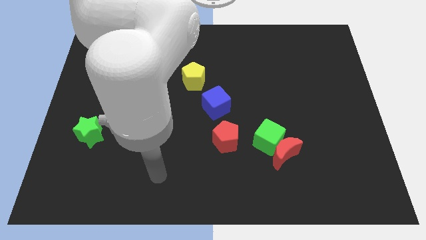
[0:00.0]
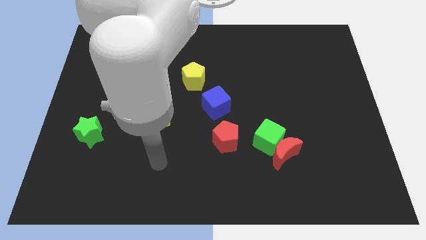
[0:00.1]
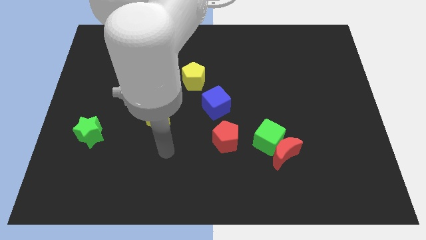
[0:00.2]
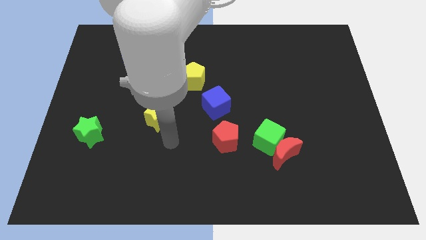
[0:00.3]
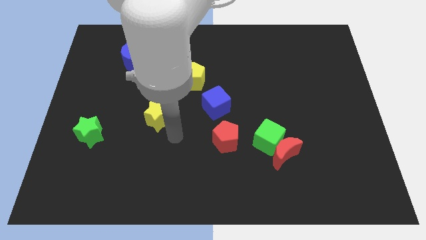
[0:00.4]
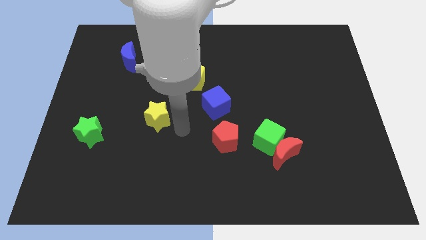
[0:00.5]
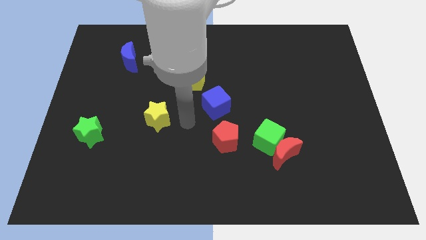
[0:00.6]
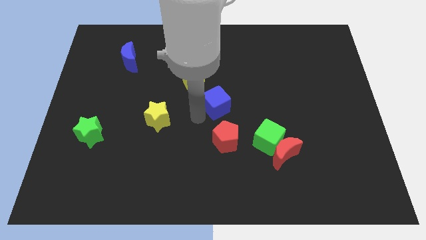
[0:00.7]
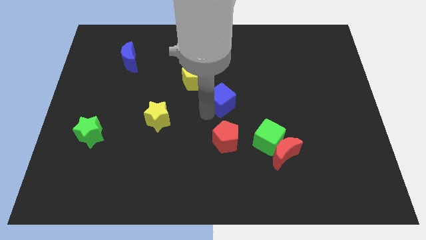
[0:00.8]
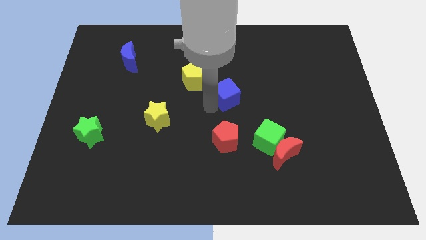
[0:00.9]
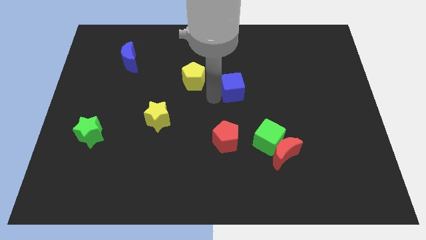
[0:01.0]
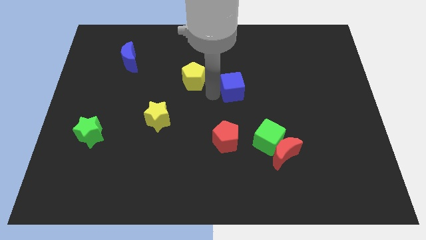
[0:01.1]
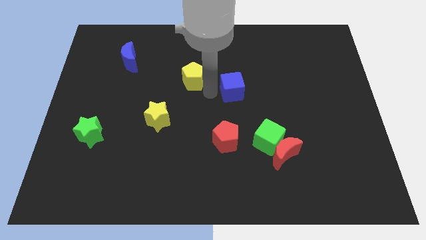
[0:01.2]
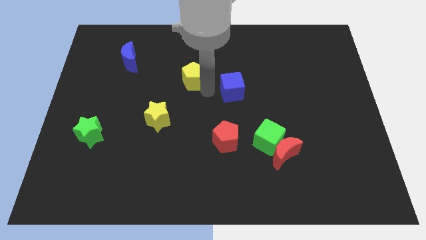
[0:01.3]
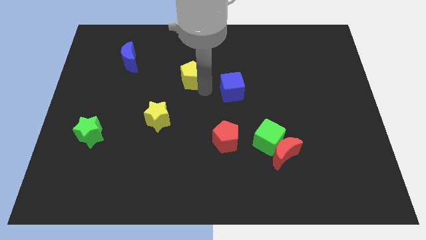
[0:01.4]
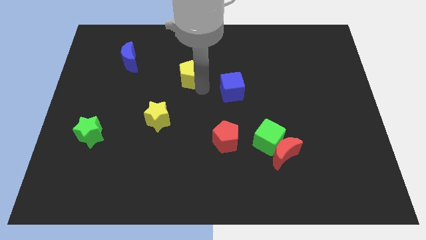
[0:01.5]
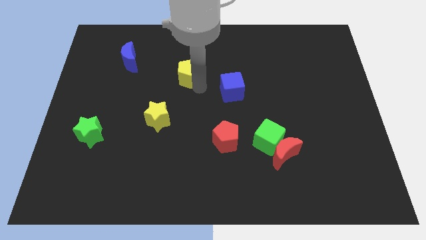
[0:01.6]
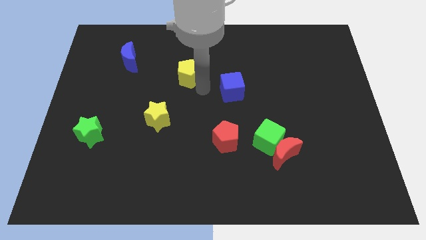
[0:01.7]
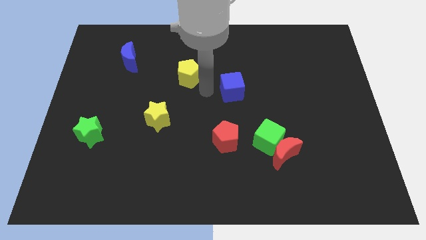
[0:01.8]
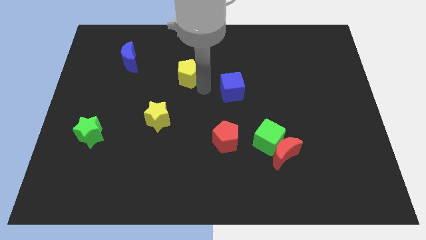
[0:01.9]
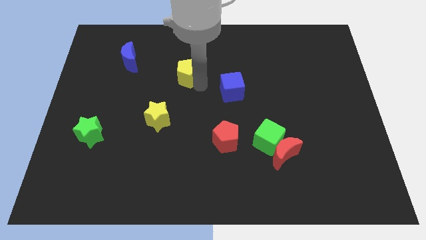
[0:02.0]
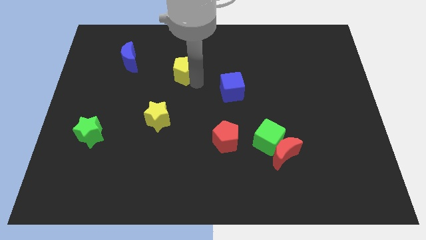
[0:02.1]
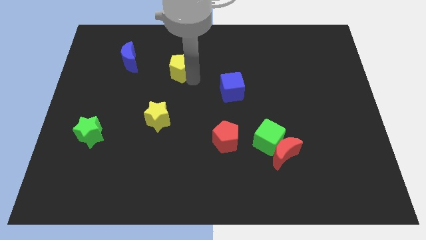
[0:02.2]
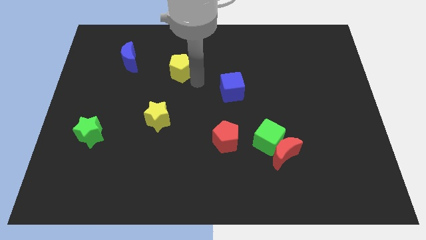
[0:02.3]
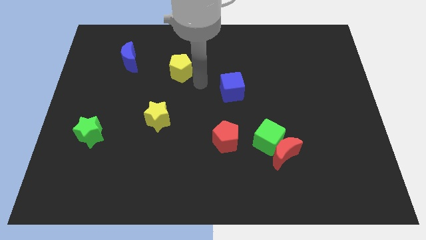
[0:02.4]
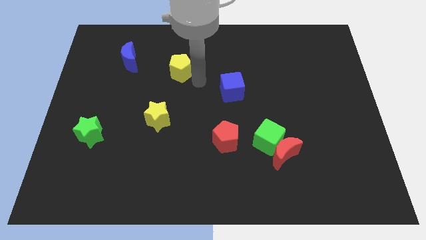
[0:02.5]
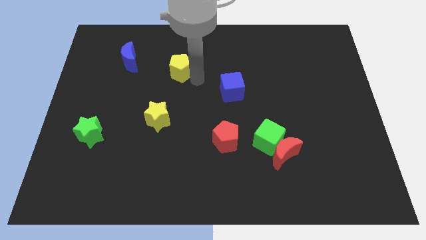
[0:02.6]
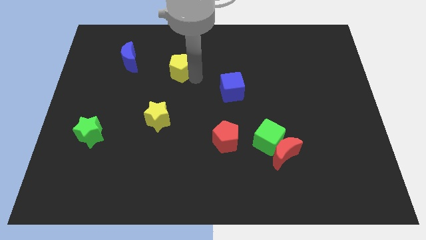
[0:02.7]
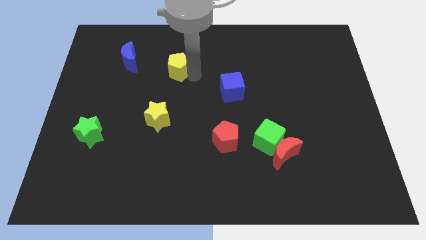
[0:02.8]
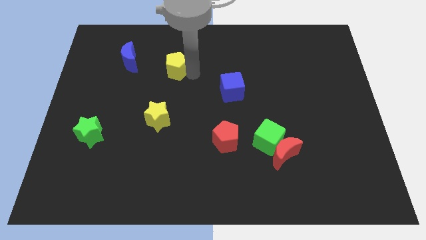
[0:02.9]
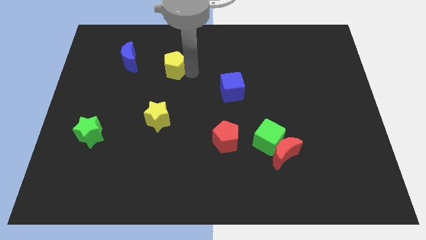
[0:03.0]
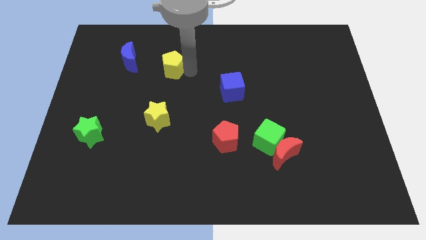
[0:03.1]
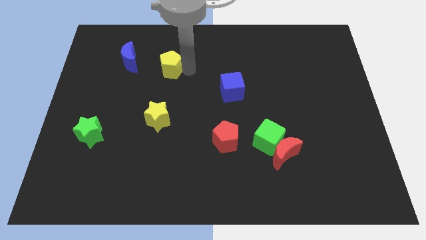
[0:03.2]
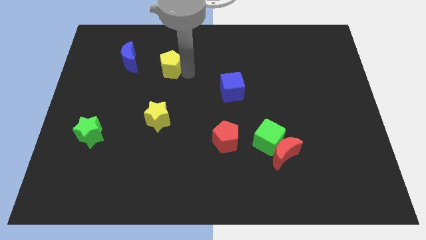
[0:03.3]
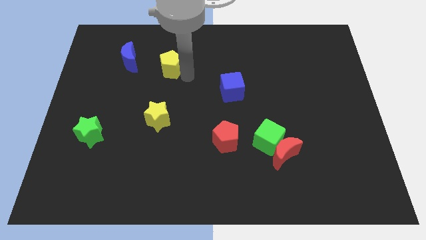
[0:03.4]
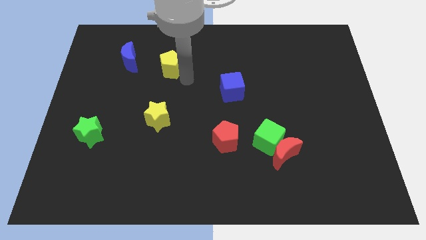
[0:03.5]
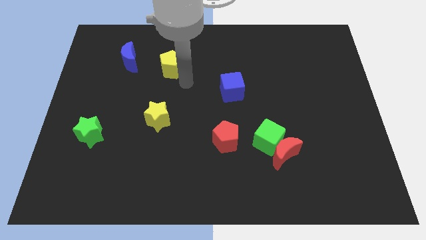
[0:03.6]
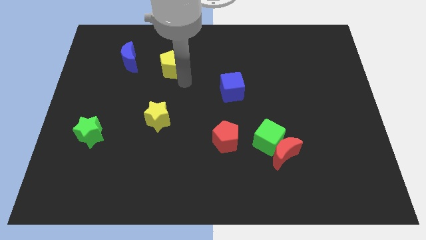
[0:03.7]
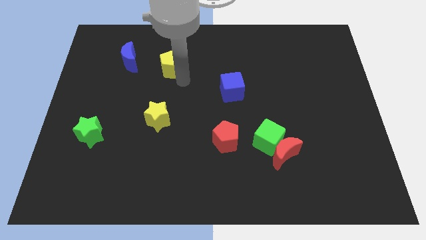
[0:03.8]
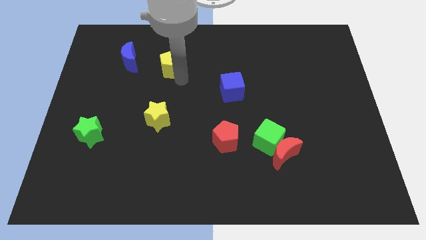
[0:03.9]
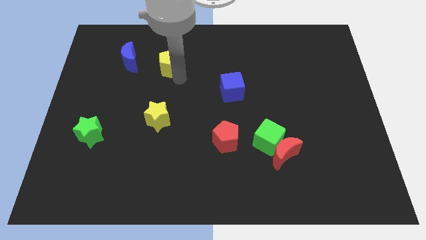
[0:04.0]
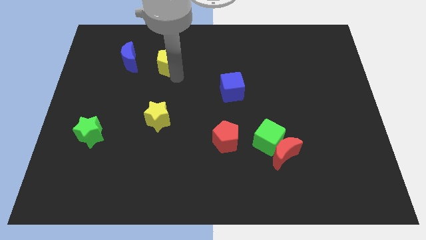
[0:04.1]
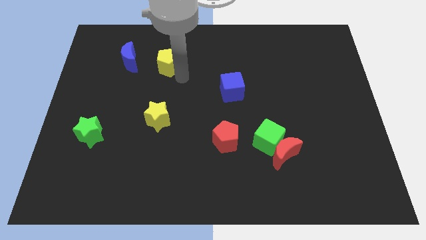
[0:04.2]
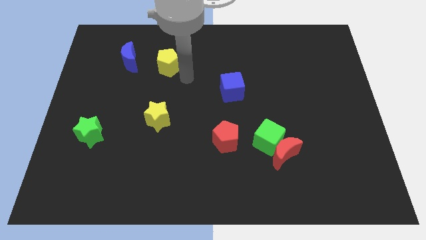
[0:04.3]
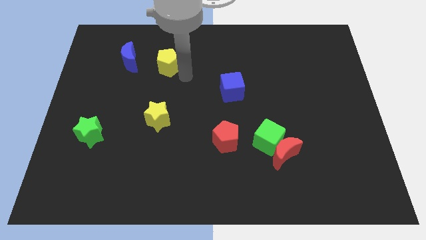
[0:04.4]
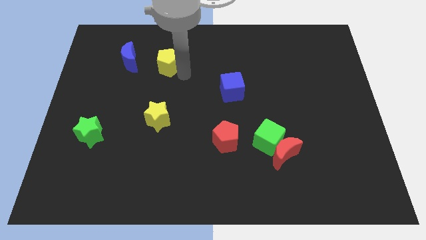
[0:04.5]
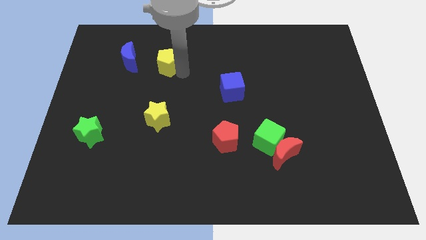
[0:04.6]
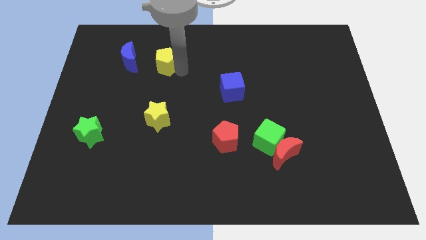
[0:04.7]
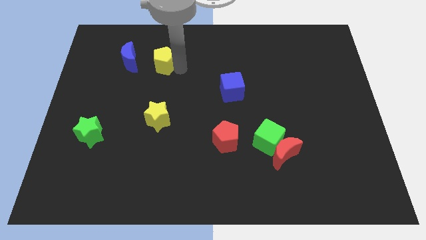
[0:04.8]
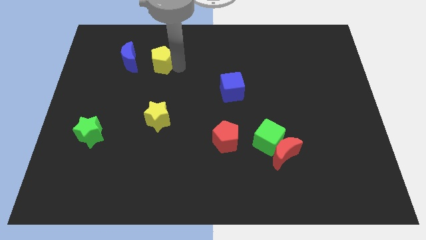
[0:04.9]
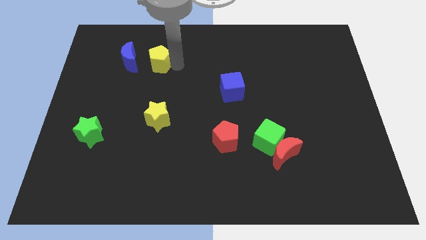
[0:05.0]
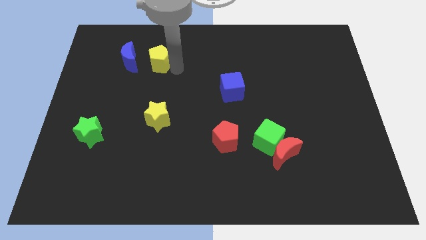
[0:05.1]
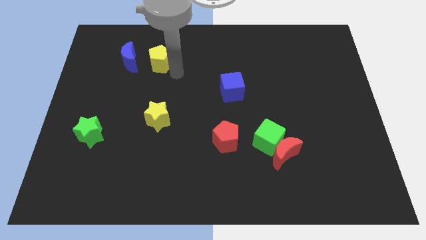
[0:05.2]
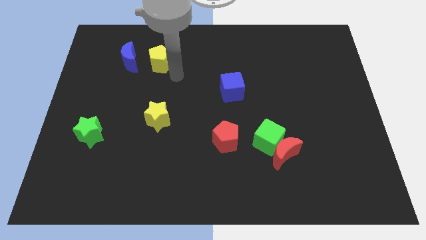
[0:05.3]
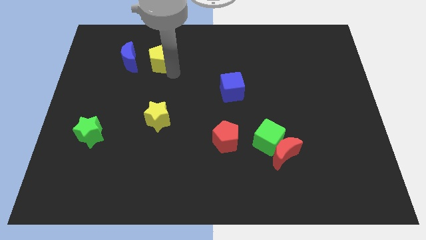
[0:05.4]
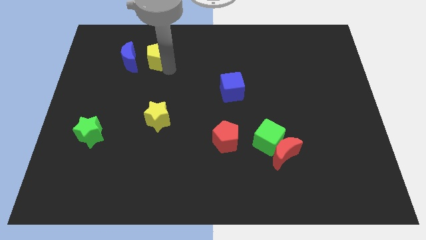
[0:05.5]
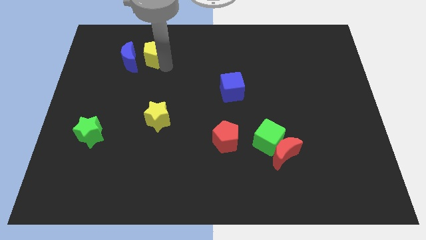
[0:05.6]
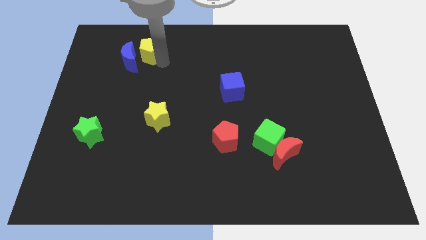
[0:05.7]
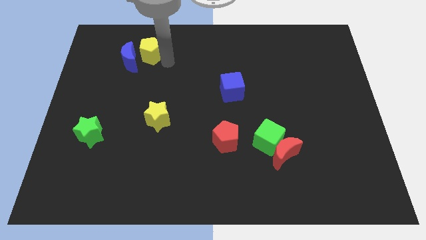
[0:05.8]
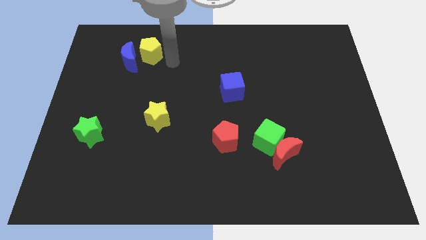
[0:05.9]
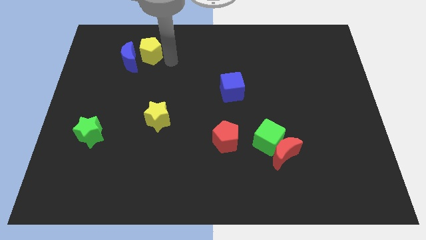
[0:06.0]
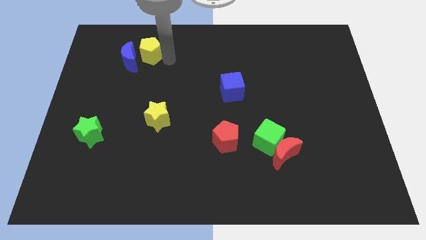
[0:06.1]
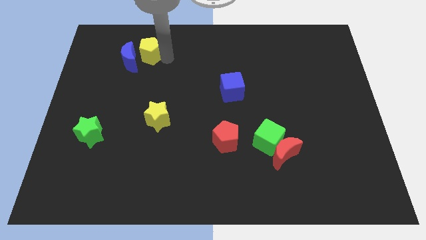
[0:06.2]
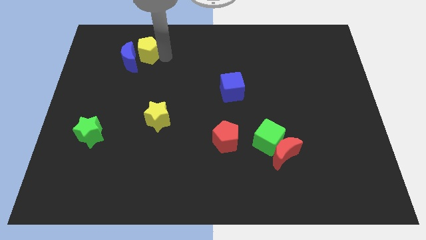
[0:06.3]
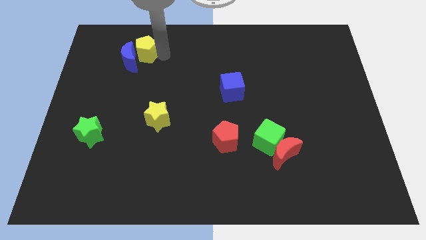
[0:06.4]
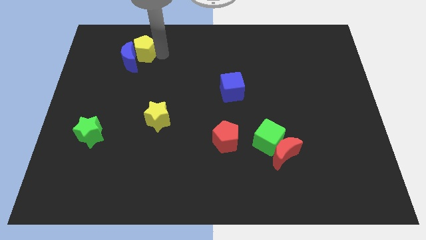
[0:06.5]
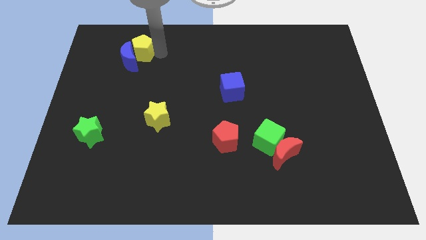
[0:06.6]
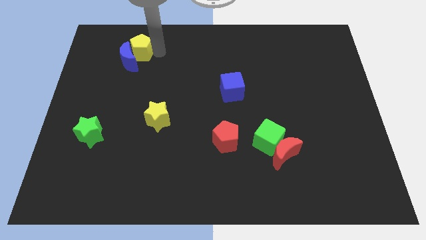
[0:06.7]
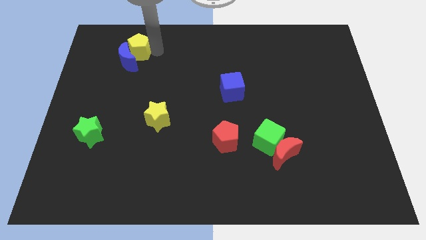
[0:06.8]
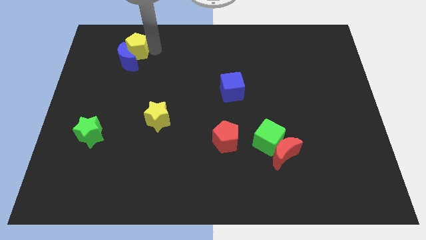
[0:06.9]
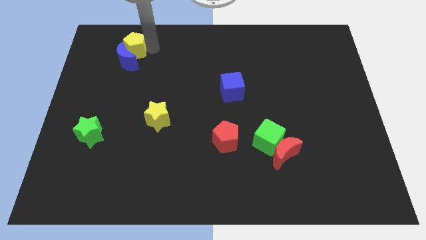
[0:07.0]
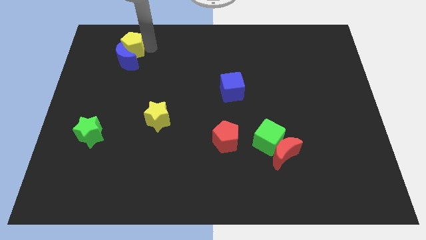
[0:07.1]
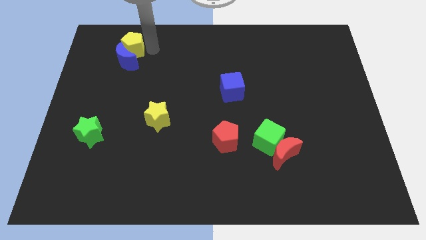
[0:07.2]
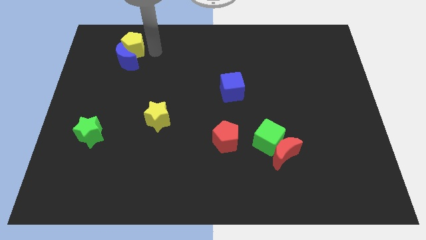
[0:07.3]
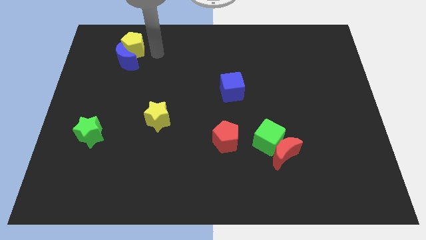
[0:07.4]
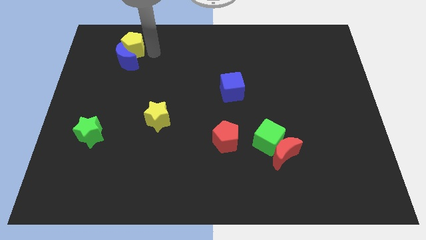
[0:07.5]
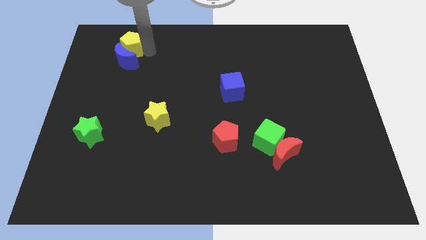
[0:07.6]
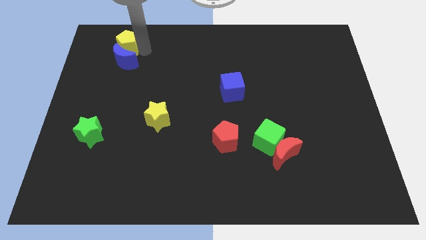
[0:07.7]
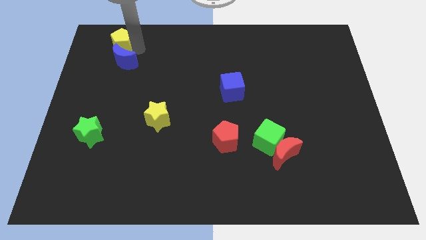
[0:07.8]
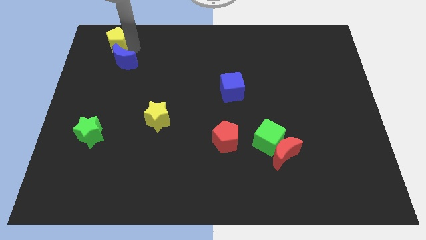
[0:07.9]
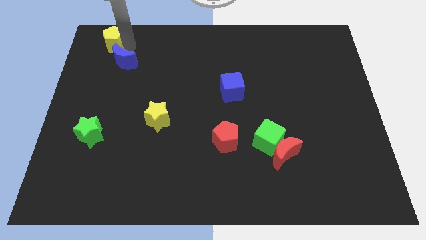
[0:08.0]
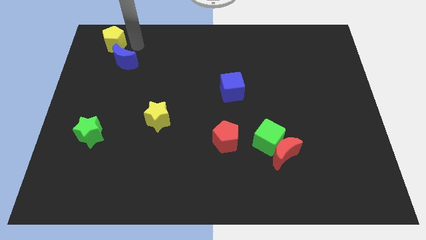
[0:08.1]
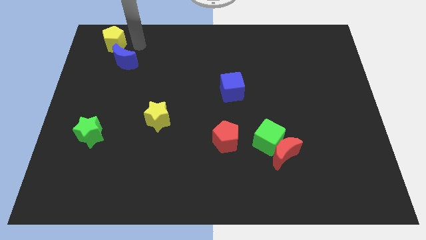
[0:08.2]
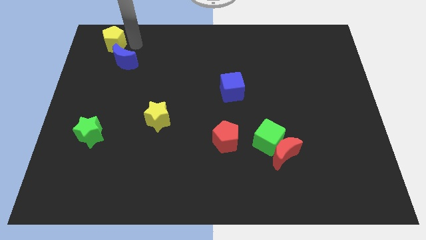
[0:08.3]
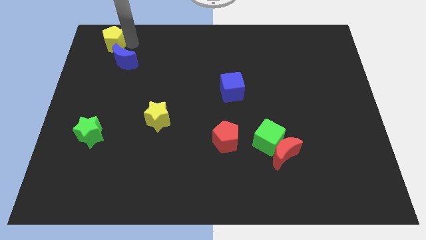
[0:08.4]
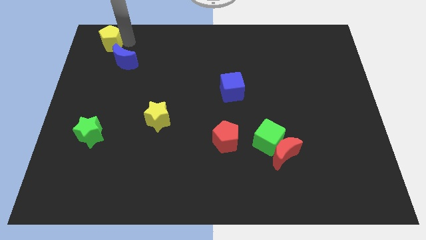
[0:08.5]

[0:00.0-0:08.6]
slide the yellow pentagon to the upper left corner
